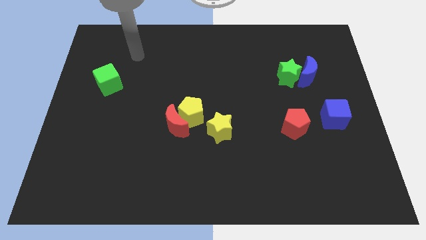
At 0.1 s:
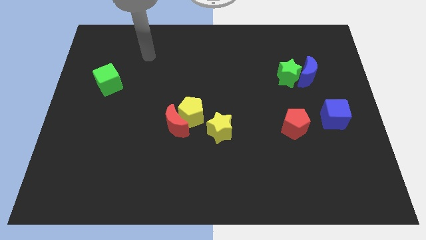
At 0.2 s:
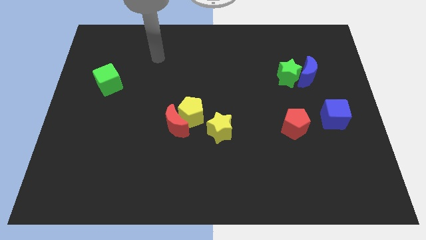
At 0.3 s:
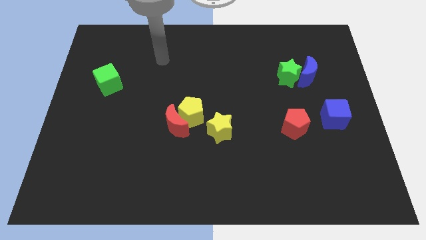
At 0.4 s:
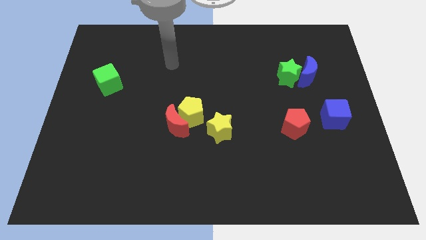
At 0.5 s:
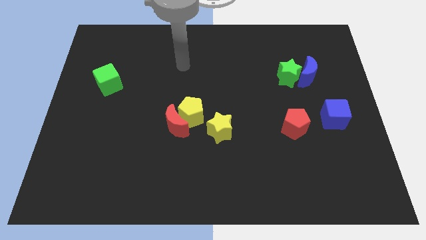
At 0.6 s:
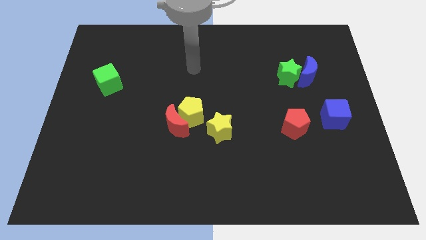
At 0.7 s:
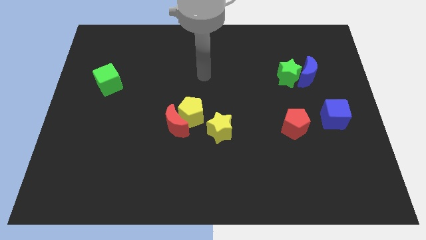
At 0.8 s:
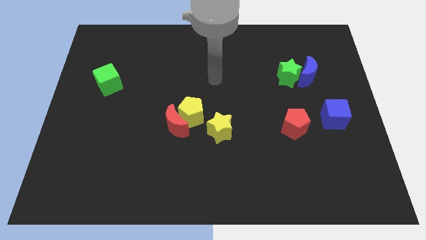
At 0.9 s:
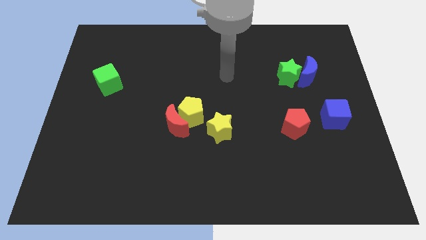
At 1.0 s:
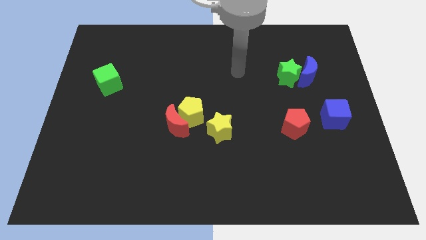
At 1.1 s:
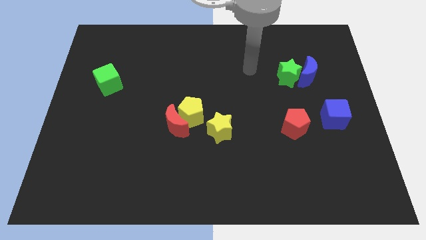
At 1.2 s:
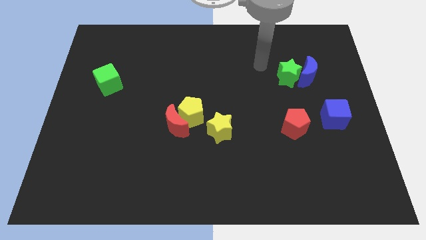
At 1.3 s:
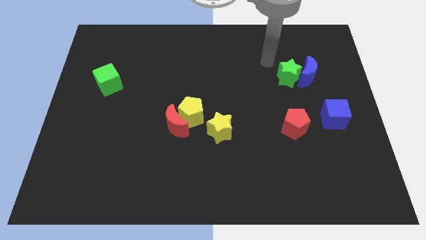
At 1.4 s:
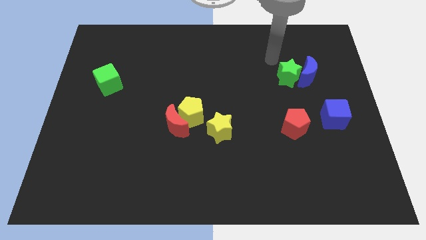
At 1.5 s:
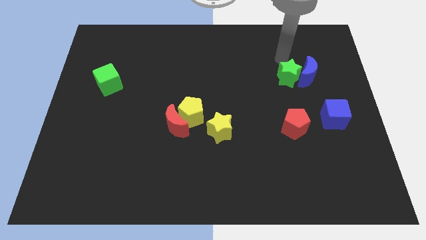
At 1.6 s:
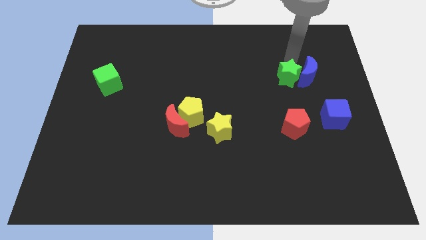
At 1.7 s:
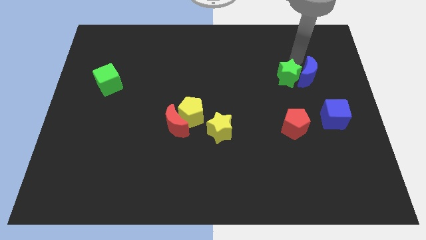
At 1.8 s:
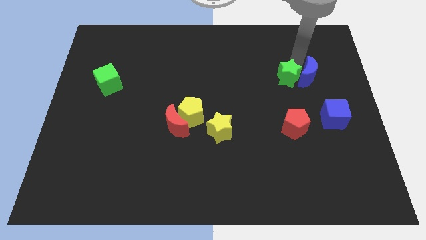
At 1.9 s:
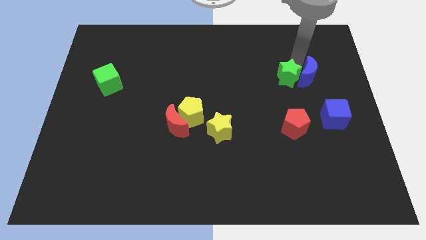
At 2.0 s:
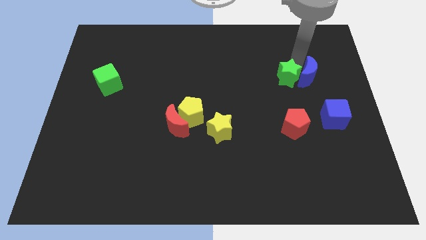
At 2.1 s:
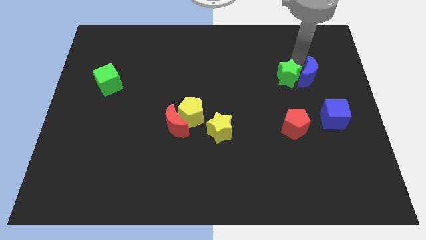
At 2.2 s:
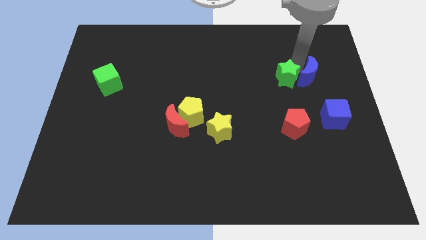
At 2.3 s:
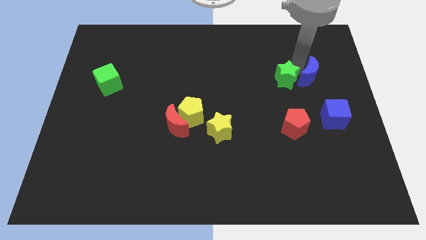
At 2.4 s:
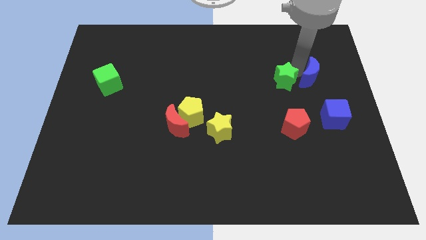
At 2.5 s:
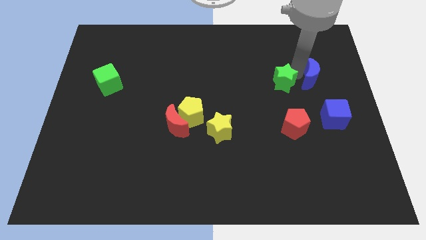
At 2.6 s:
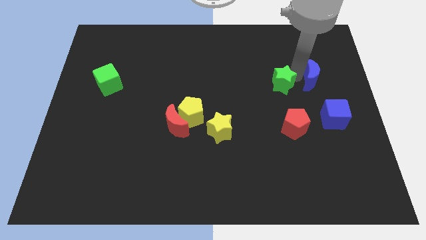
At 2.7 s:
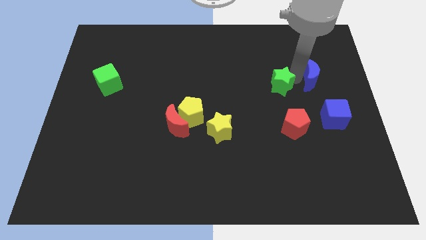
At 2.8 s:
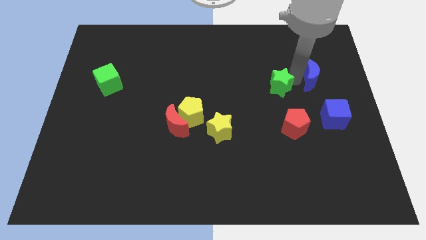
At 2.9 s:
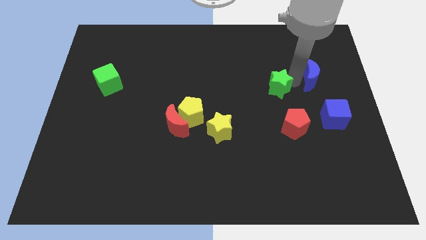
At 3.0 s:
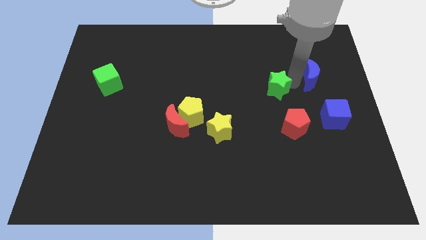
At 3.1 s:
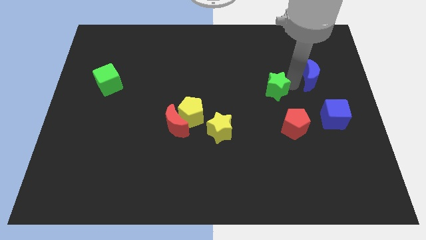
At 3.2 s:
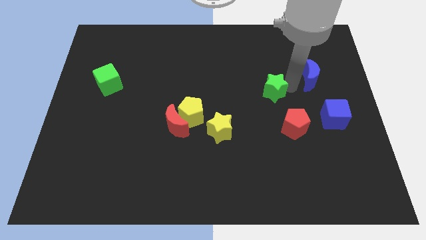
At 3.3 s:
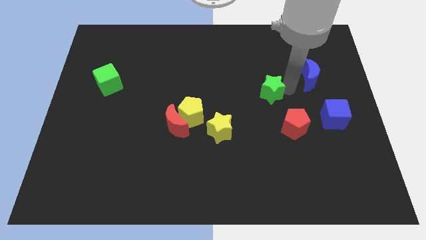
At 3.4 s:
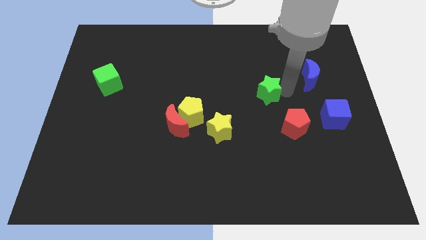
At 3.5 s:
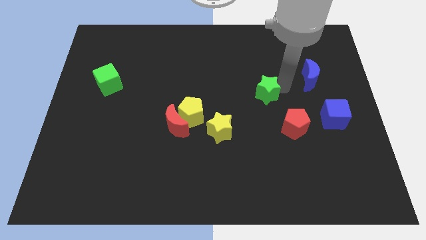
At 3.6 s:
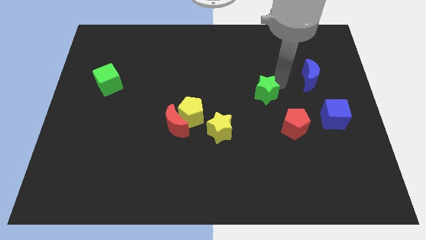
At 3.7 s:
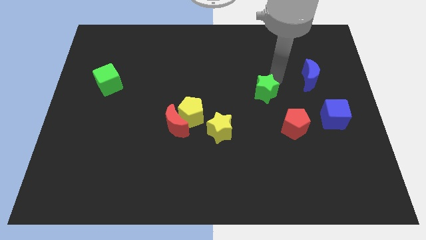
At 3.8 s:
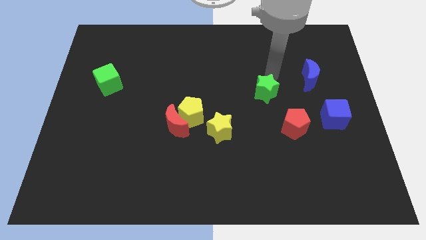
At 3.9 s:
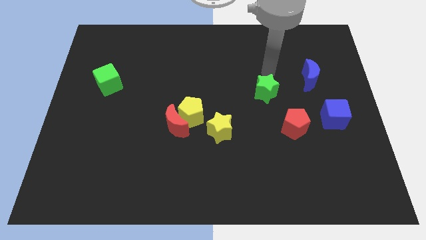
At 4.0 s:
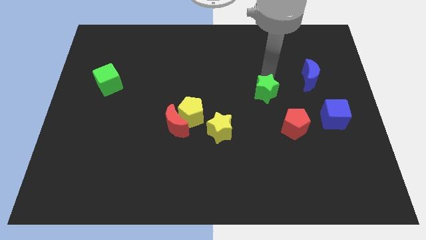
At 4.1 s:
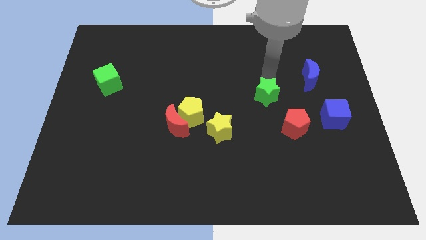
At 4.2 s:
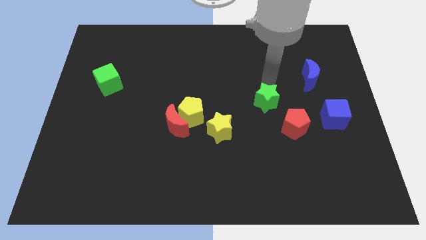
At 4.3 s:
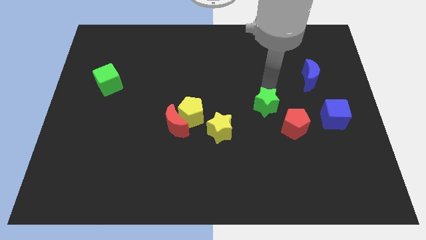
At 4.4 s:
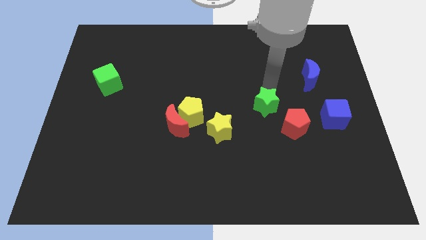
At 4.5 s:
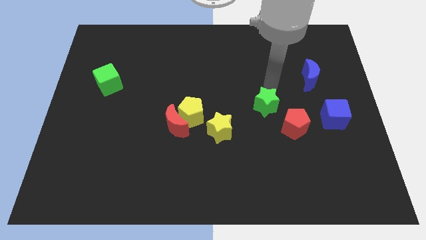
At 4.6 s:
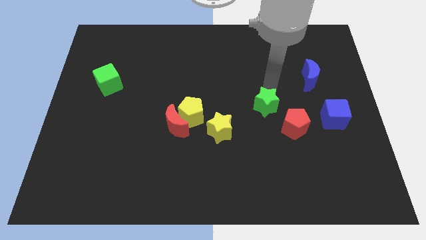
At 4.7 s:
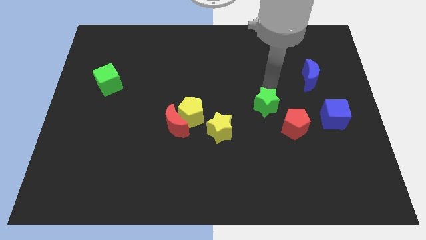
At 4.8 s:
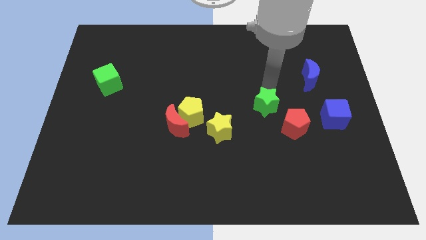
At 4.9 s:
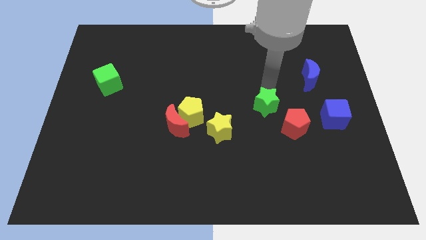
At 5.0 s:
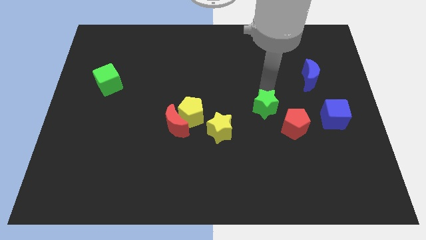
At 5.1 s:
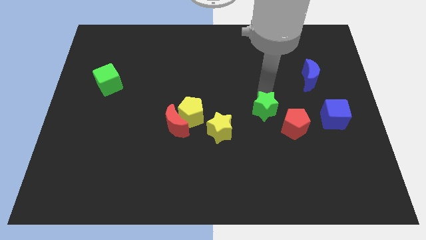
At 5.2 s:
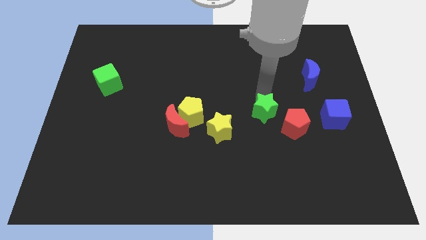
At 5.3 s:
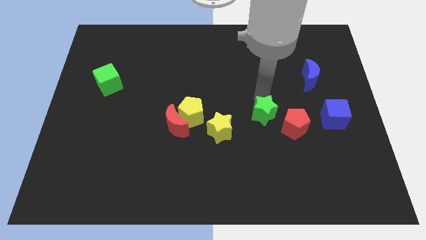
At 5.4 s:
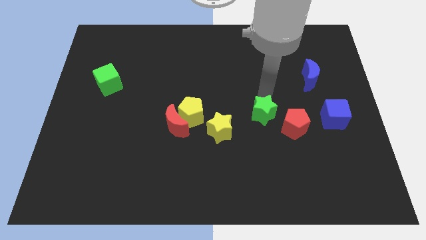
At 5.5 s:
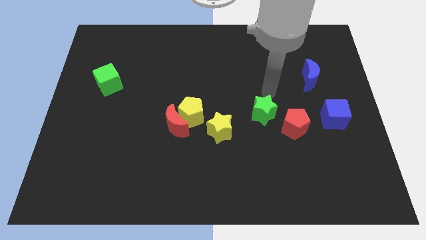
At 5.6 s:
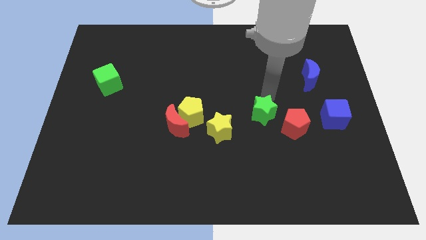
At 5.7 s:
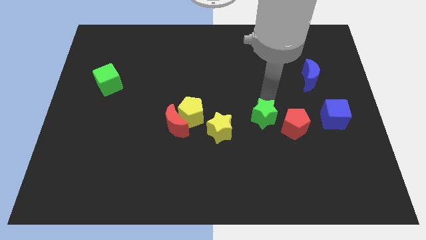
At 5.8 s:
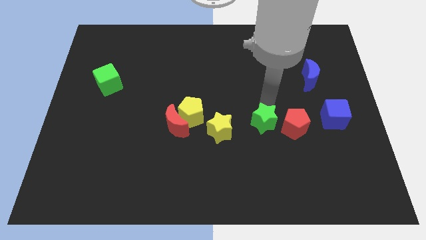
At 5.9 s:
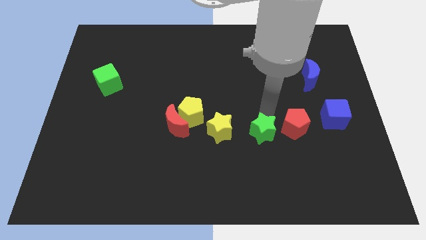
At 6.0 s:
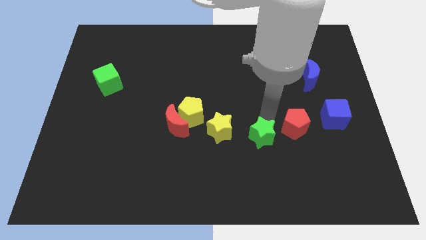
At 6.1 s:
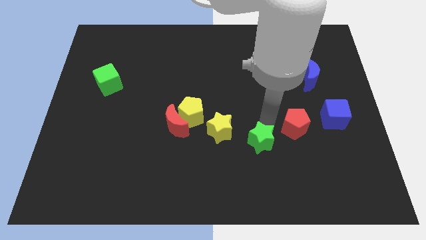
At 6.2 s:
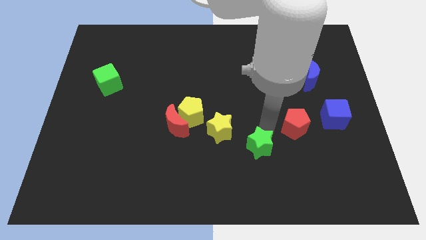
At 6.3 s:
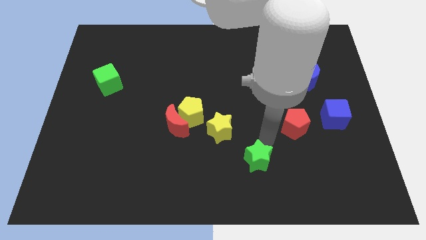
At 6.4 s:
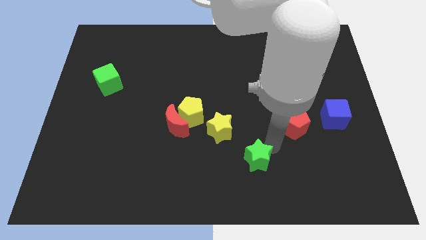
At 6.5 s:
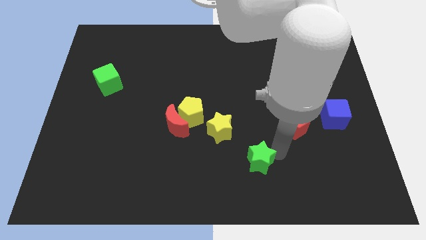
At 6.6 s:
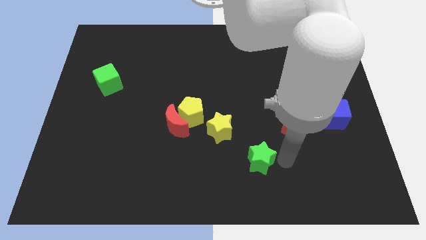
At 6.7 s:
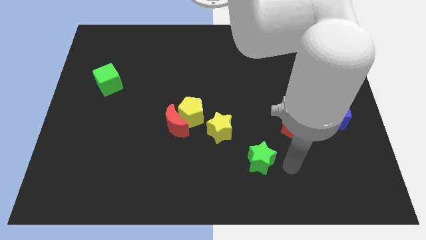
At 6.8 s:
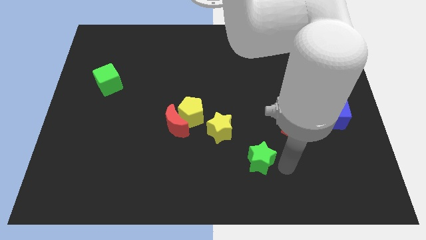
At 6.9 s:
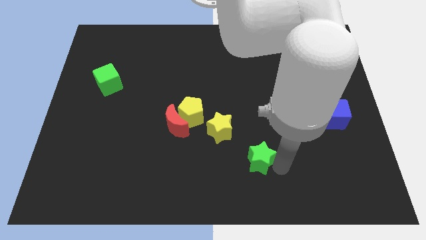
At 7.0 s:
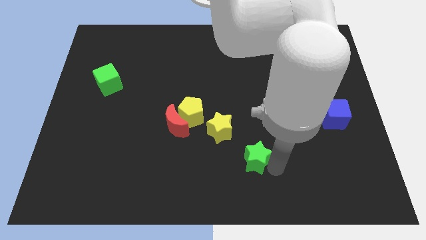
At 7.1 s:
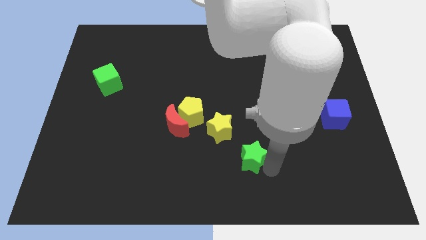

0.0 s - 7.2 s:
move the green star down and to the left diagonally

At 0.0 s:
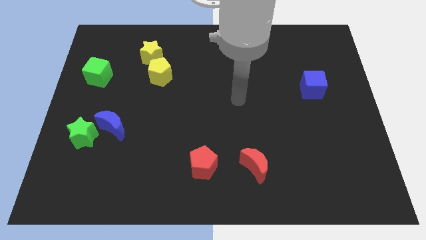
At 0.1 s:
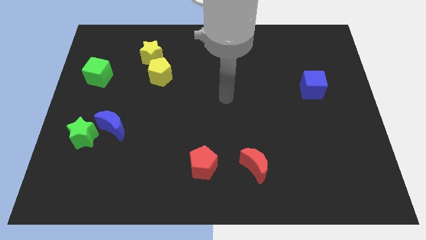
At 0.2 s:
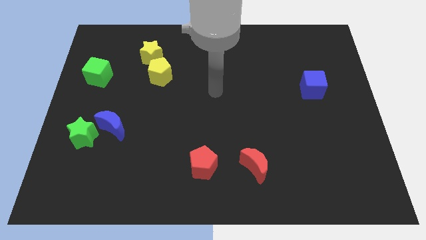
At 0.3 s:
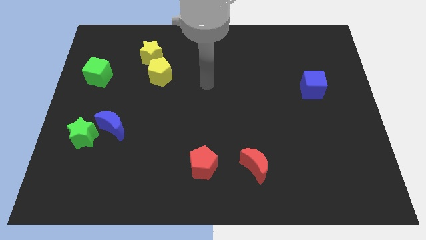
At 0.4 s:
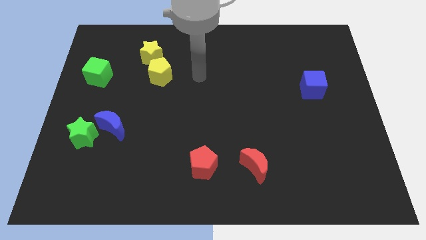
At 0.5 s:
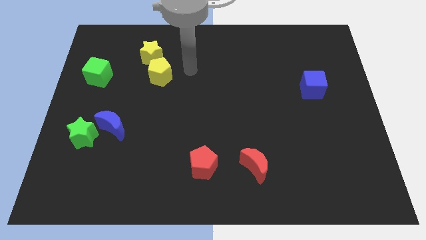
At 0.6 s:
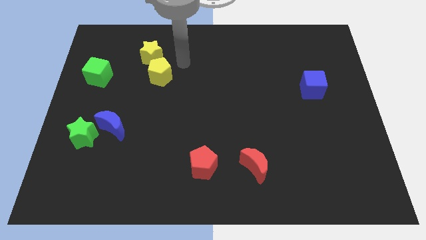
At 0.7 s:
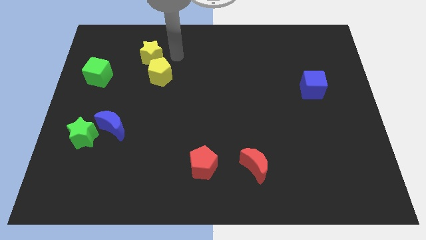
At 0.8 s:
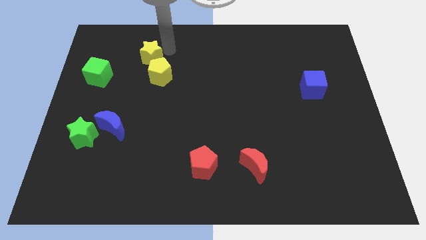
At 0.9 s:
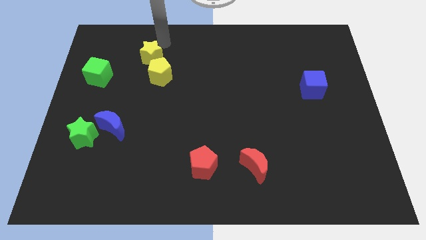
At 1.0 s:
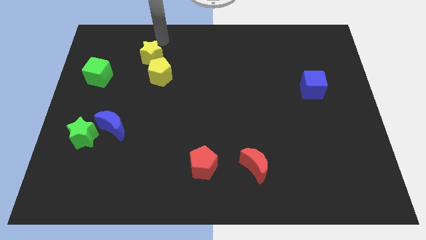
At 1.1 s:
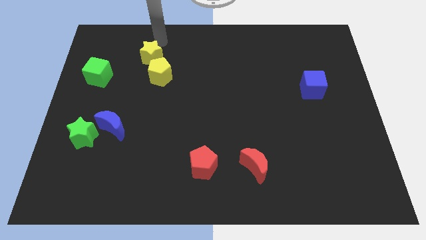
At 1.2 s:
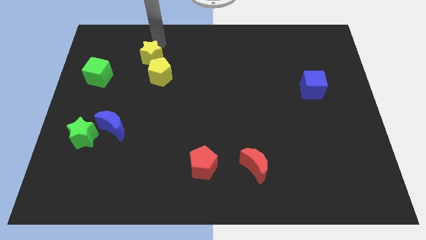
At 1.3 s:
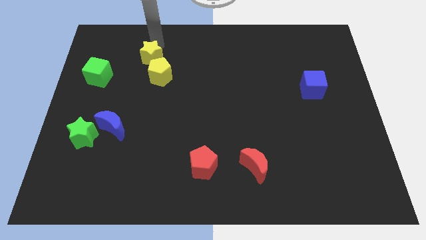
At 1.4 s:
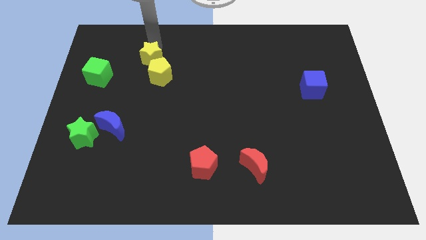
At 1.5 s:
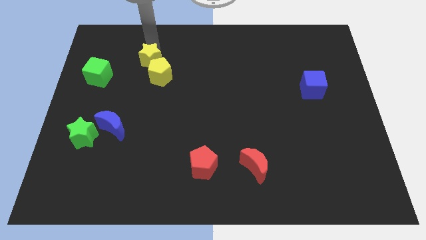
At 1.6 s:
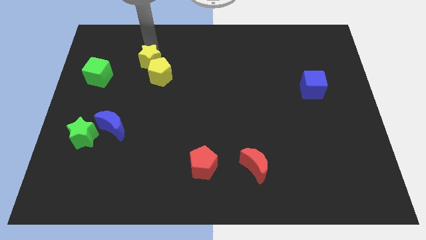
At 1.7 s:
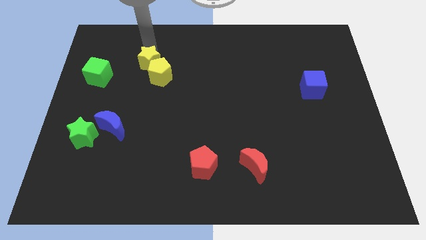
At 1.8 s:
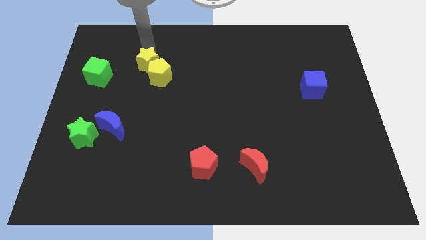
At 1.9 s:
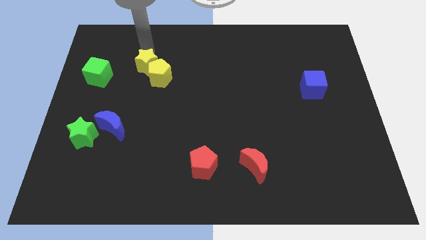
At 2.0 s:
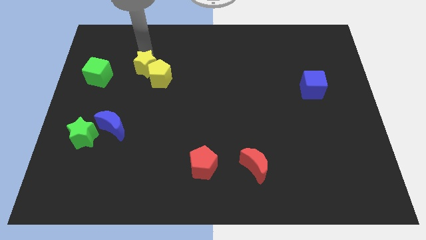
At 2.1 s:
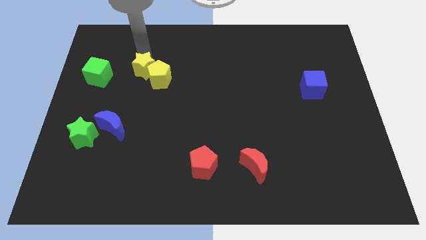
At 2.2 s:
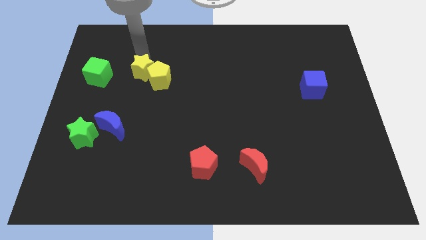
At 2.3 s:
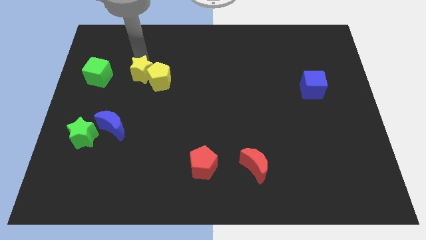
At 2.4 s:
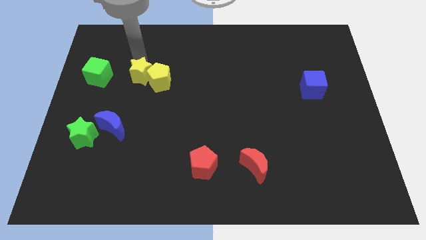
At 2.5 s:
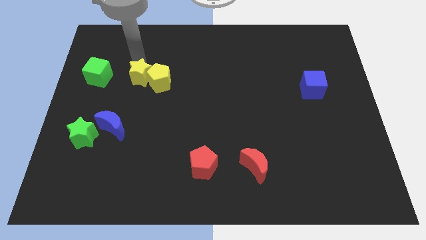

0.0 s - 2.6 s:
push the yellow star a little bit downwards
